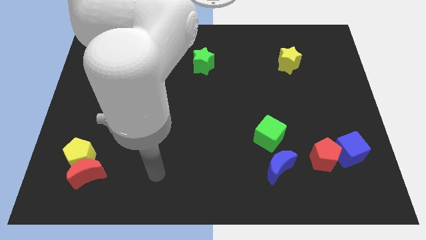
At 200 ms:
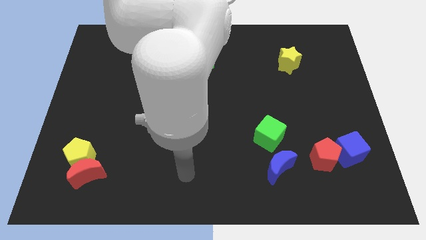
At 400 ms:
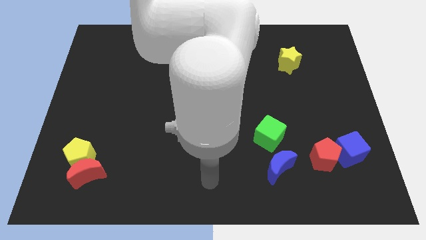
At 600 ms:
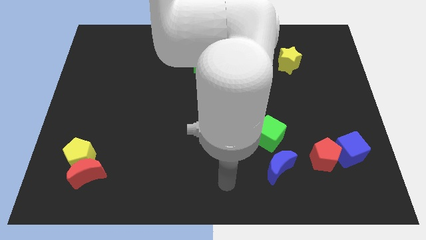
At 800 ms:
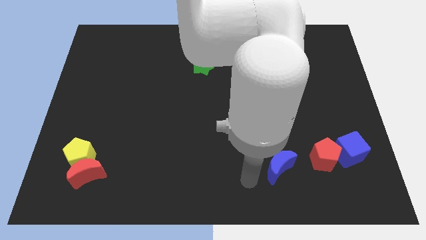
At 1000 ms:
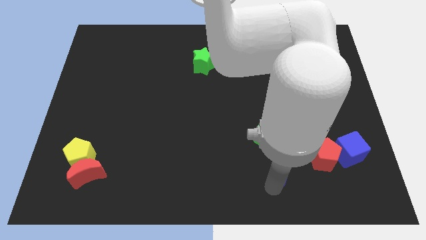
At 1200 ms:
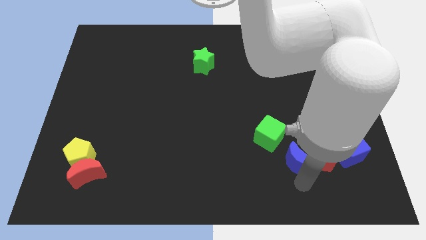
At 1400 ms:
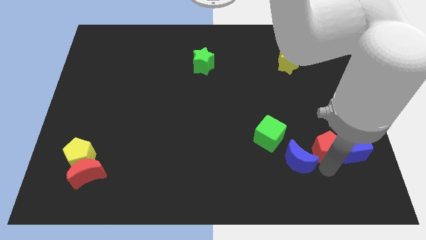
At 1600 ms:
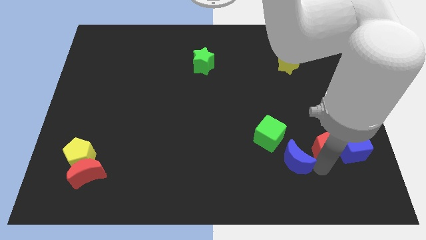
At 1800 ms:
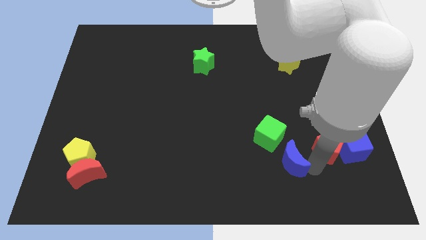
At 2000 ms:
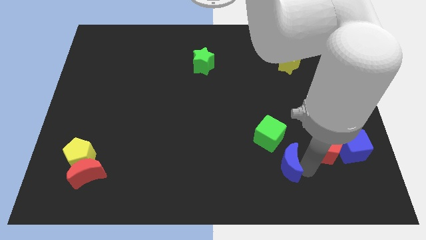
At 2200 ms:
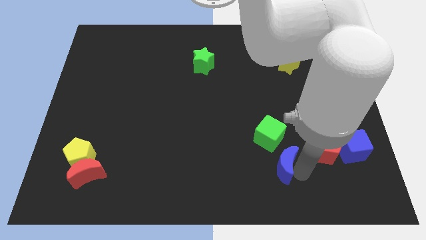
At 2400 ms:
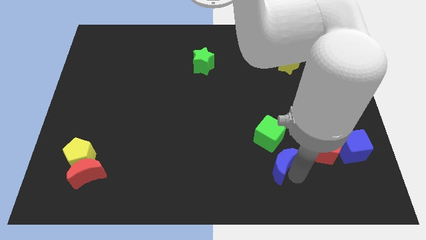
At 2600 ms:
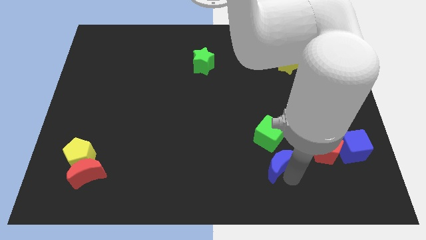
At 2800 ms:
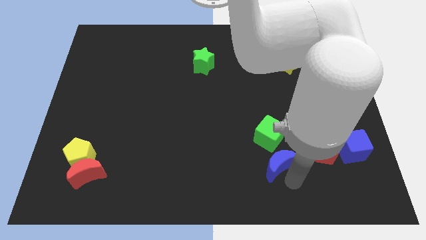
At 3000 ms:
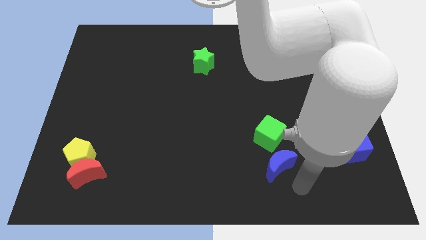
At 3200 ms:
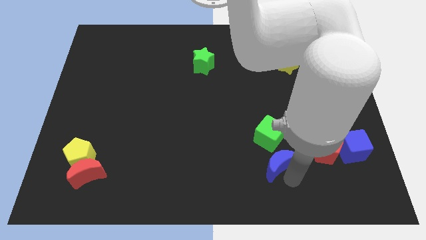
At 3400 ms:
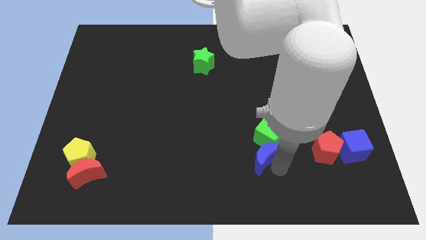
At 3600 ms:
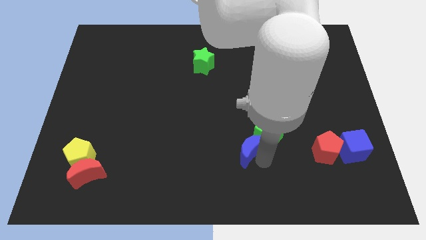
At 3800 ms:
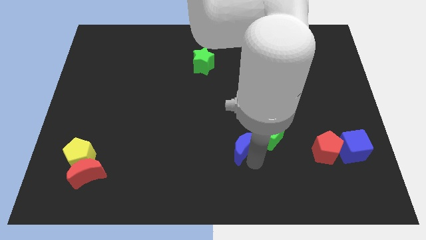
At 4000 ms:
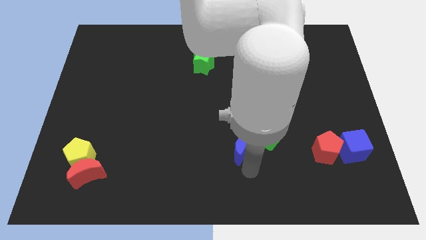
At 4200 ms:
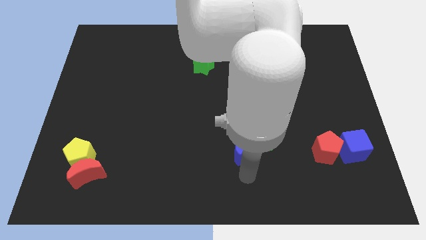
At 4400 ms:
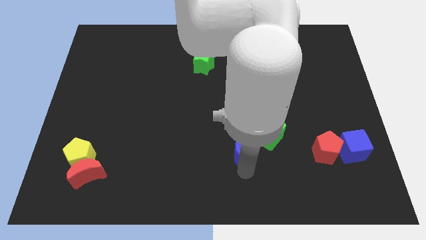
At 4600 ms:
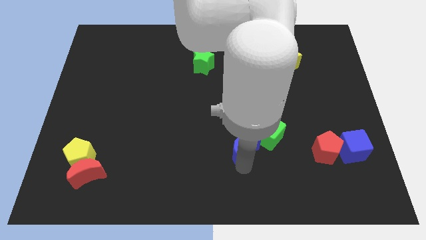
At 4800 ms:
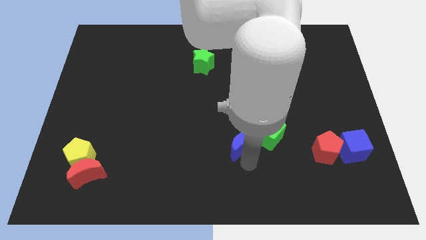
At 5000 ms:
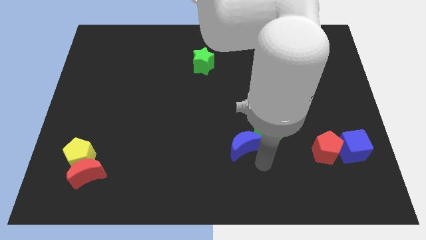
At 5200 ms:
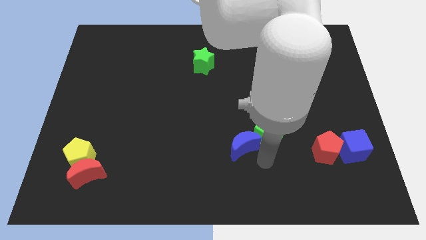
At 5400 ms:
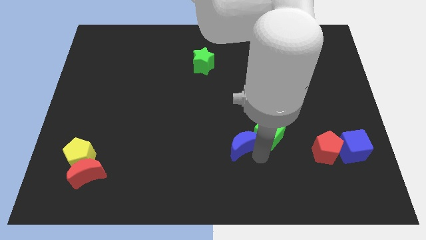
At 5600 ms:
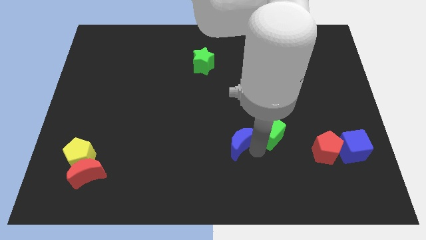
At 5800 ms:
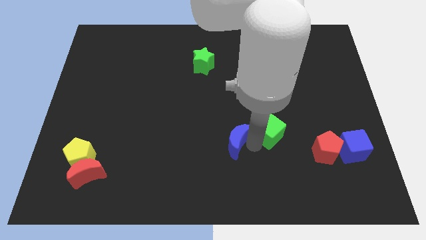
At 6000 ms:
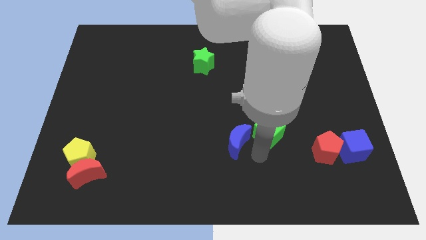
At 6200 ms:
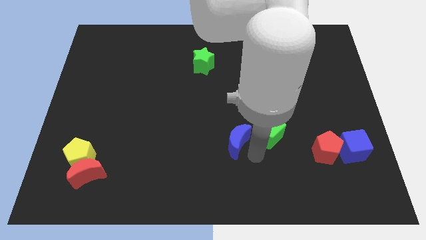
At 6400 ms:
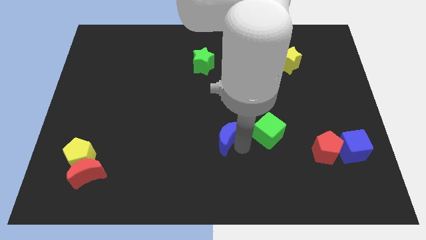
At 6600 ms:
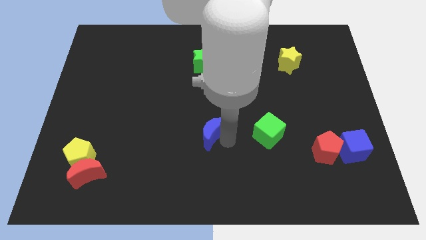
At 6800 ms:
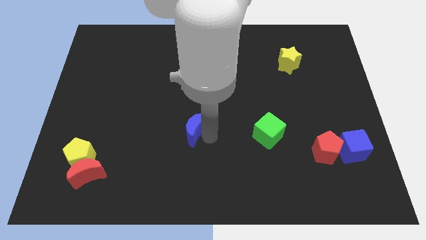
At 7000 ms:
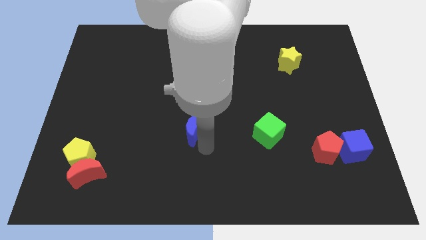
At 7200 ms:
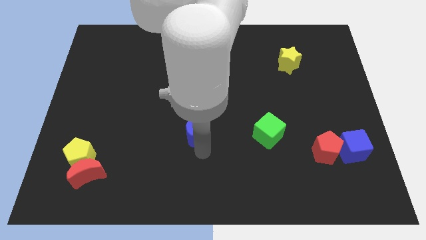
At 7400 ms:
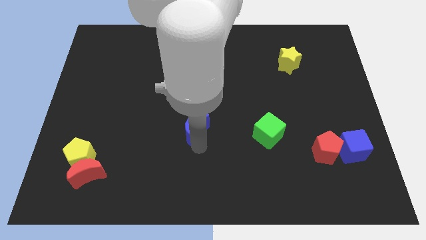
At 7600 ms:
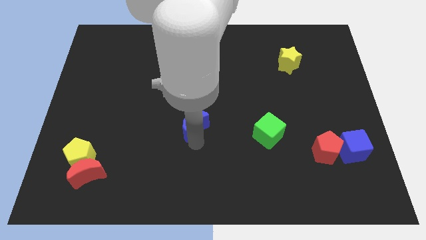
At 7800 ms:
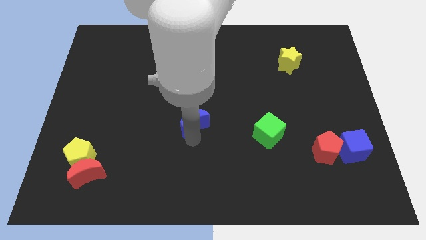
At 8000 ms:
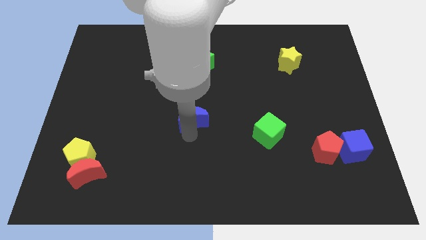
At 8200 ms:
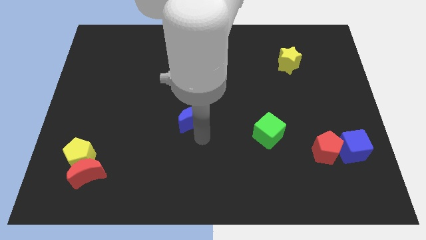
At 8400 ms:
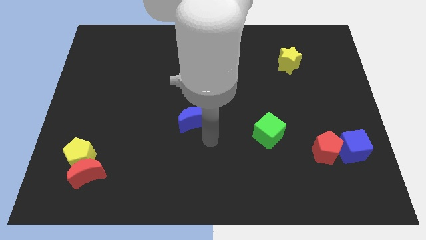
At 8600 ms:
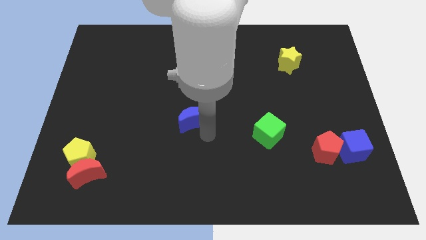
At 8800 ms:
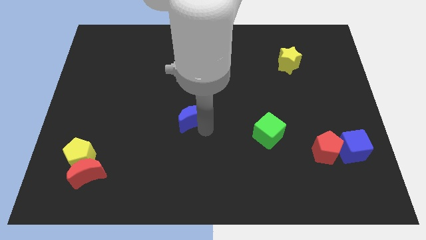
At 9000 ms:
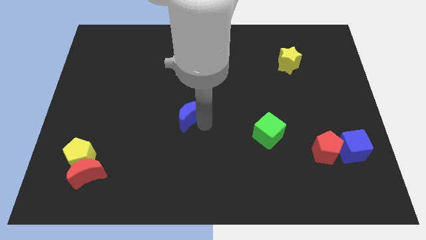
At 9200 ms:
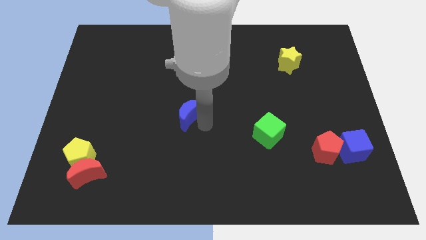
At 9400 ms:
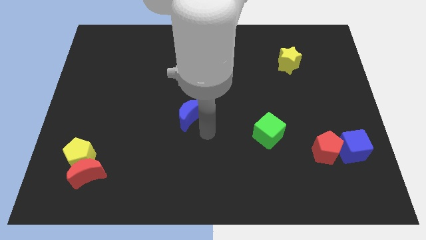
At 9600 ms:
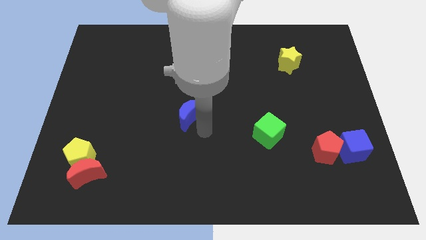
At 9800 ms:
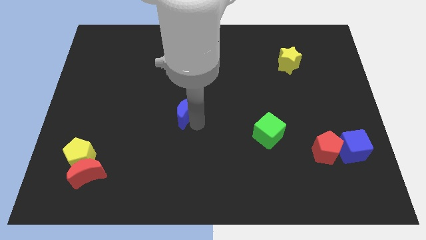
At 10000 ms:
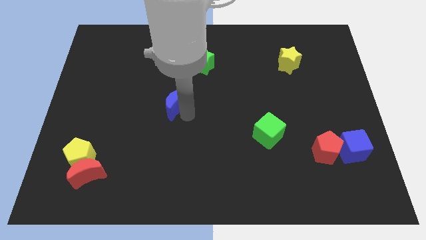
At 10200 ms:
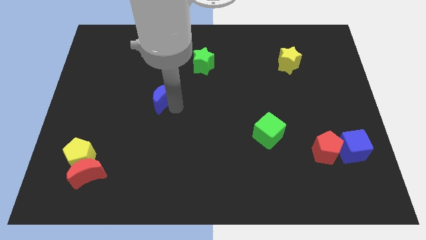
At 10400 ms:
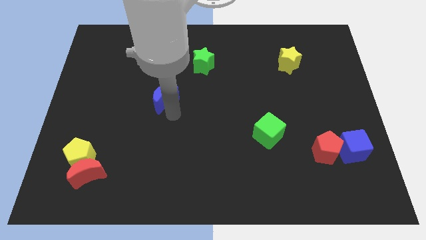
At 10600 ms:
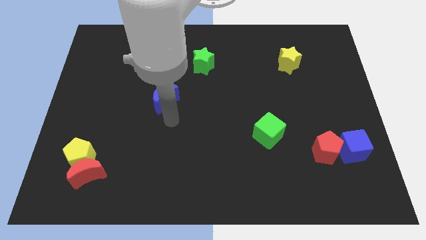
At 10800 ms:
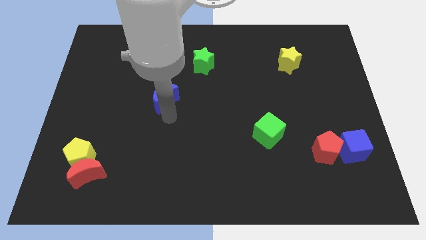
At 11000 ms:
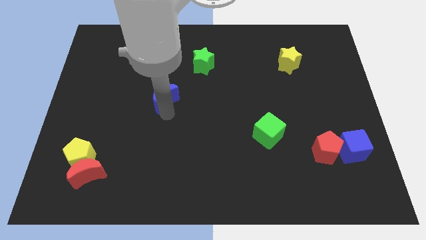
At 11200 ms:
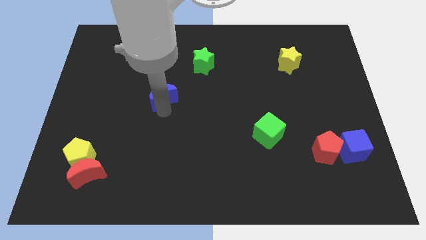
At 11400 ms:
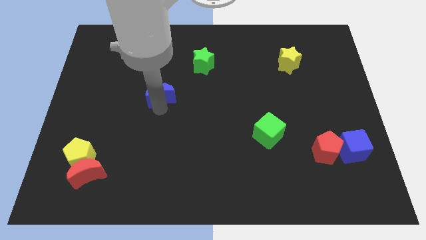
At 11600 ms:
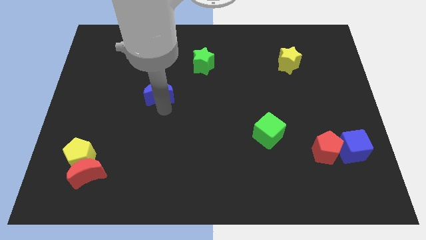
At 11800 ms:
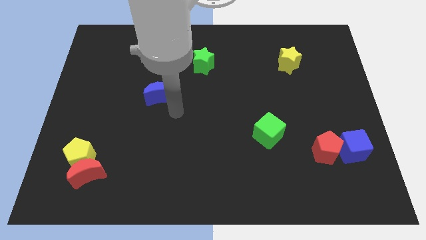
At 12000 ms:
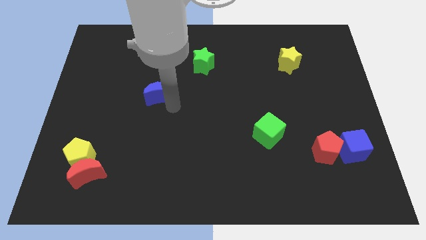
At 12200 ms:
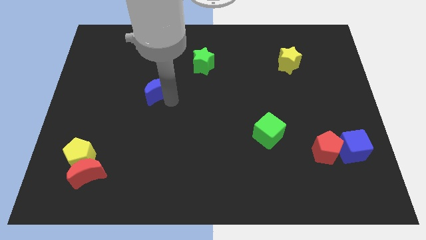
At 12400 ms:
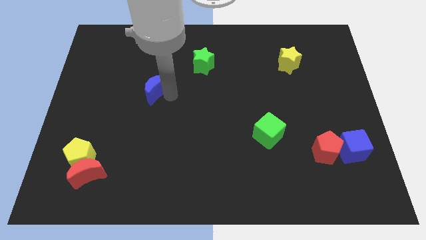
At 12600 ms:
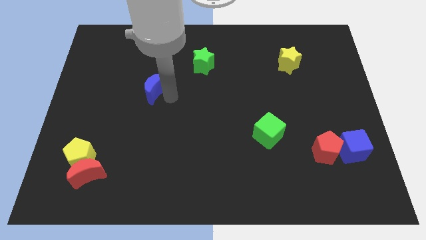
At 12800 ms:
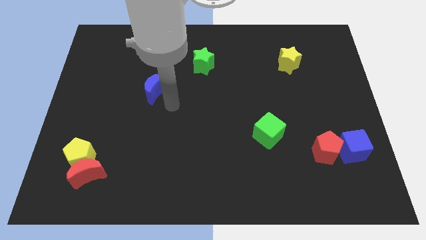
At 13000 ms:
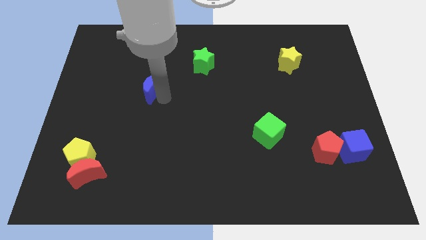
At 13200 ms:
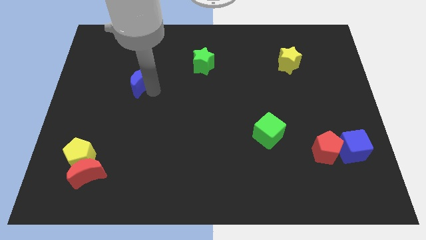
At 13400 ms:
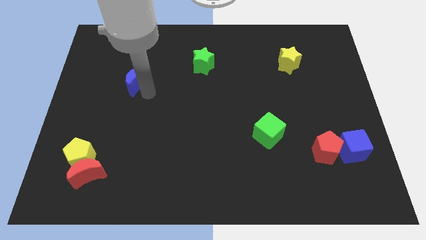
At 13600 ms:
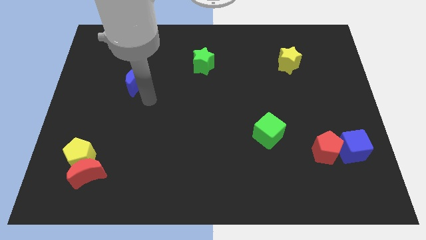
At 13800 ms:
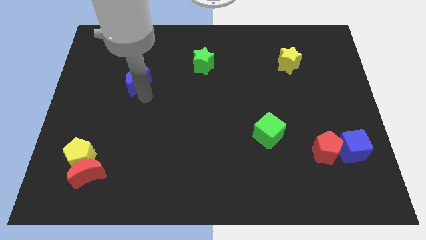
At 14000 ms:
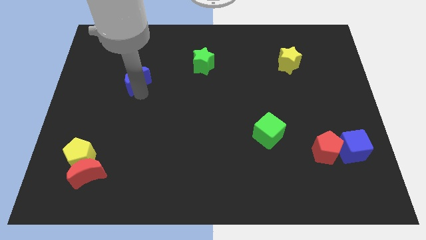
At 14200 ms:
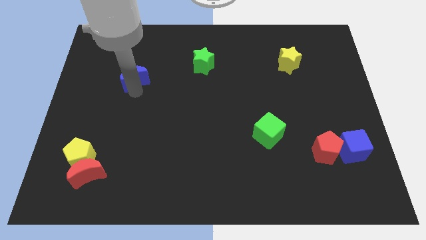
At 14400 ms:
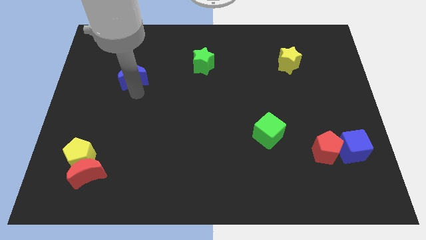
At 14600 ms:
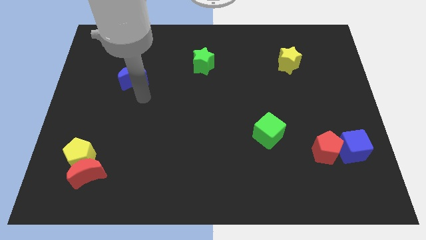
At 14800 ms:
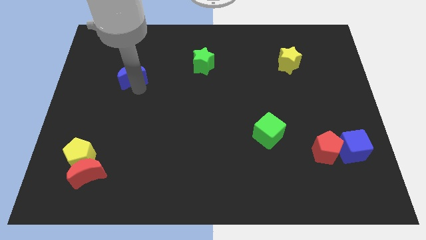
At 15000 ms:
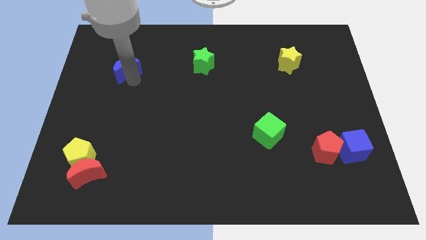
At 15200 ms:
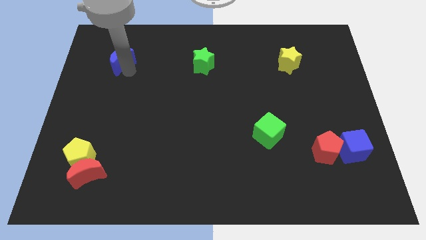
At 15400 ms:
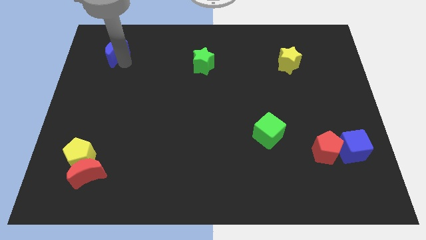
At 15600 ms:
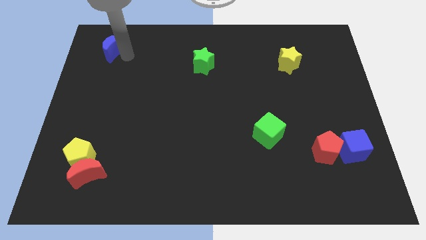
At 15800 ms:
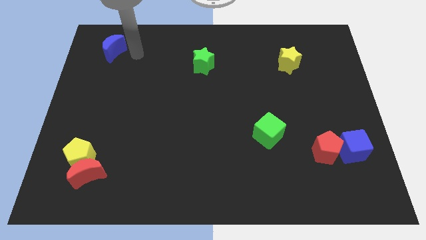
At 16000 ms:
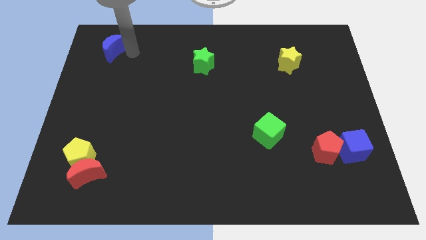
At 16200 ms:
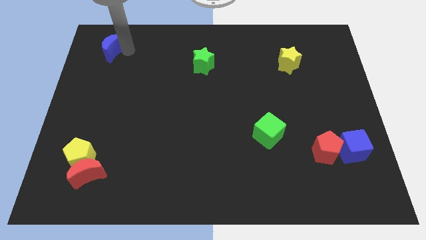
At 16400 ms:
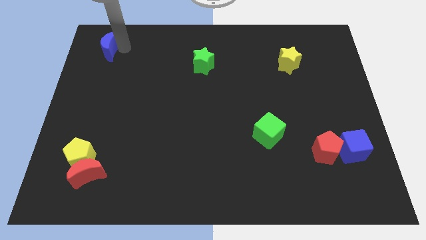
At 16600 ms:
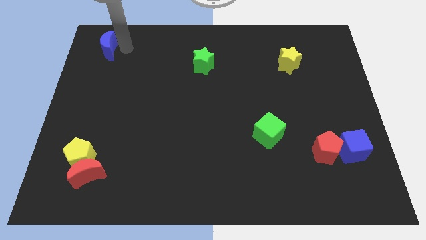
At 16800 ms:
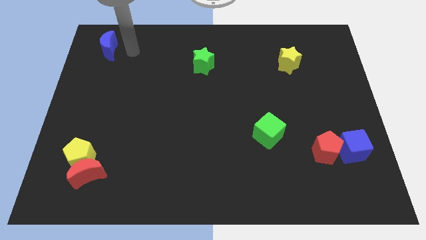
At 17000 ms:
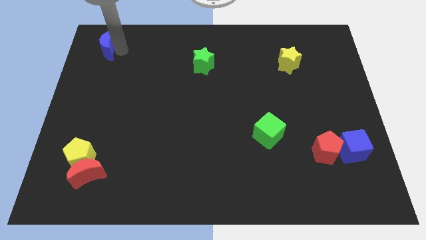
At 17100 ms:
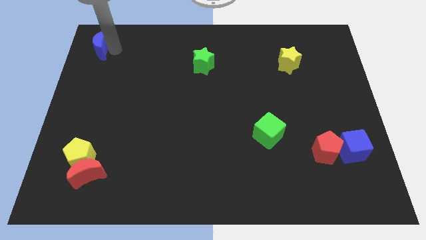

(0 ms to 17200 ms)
slide the blue moon to the top left corner
